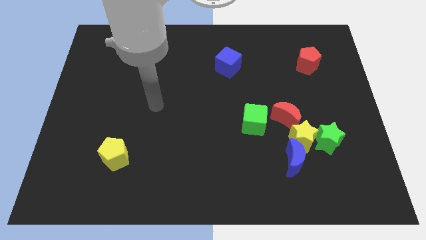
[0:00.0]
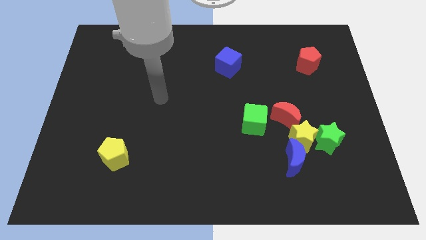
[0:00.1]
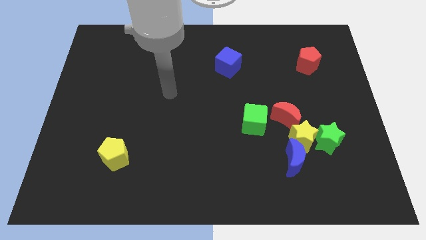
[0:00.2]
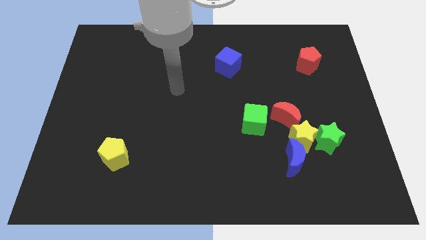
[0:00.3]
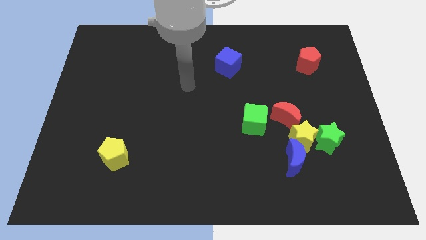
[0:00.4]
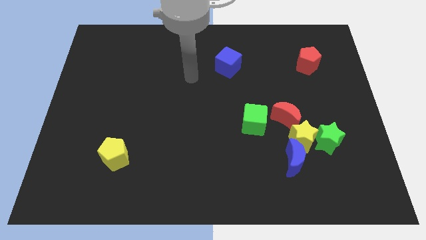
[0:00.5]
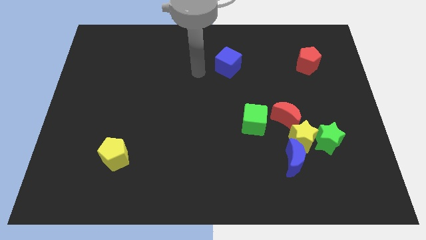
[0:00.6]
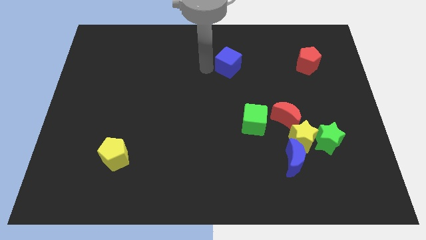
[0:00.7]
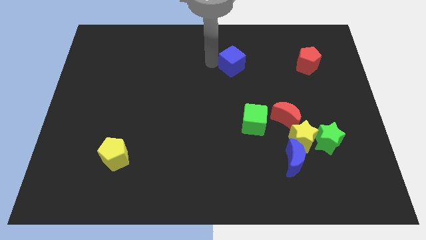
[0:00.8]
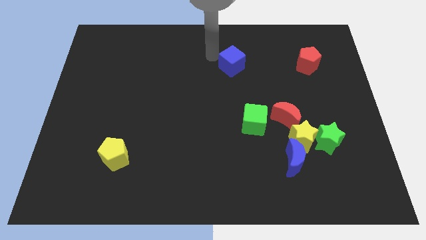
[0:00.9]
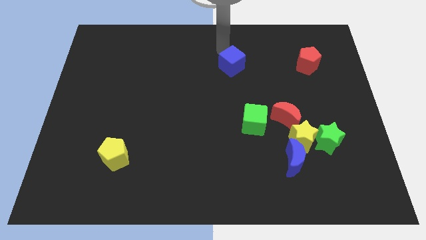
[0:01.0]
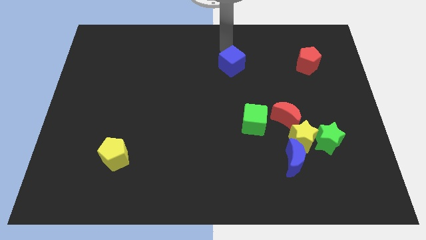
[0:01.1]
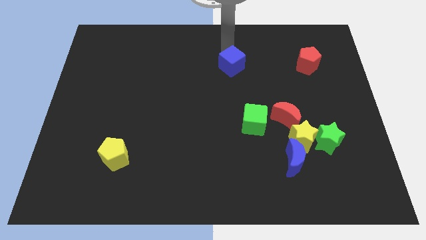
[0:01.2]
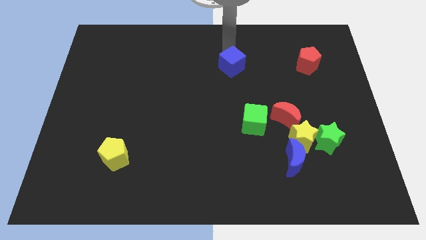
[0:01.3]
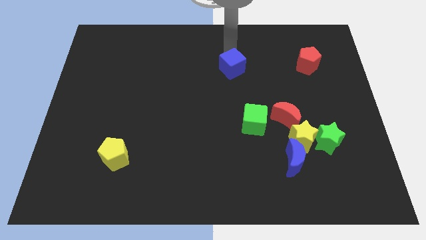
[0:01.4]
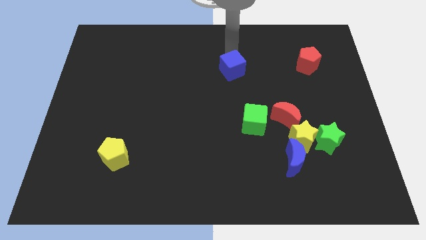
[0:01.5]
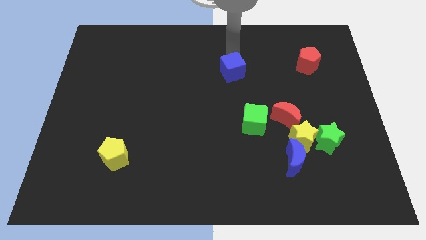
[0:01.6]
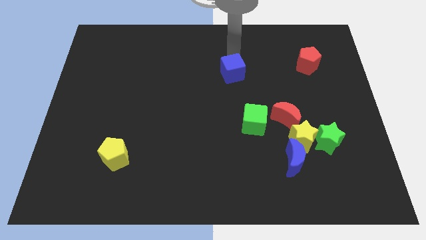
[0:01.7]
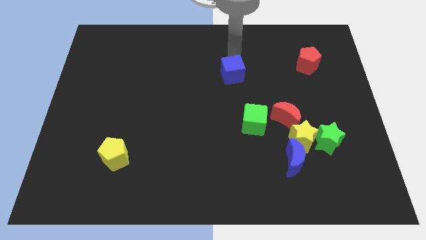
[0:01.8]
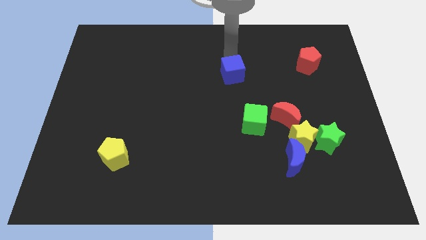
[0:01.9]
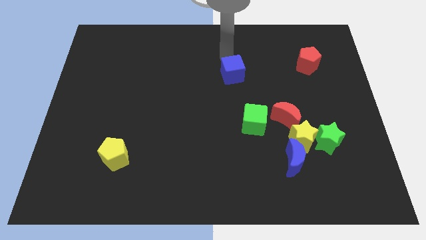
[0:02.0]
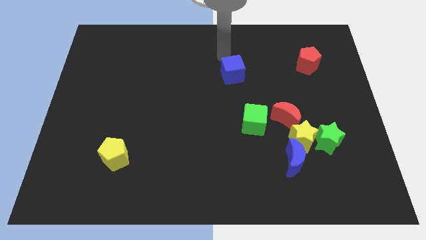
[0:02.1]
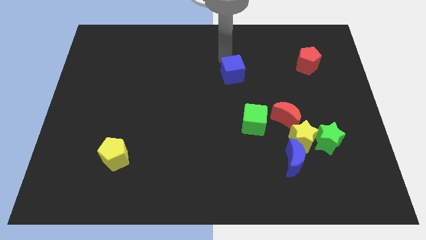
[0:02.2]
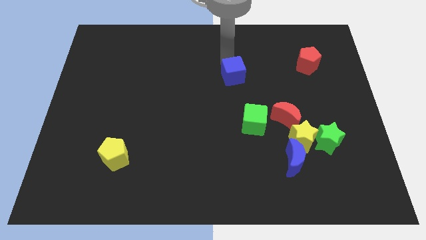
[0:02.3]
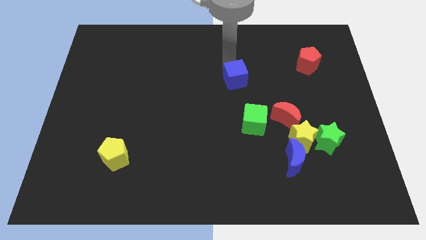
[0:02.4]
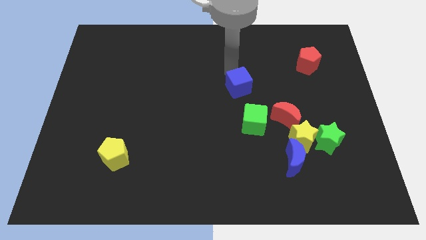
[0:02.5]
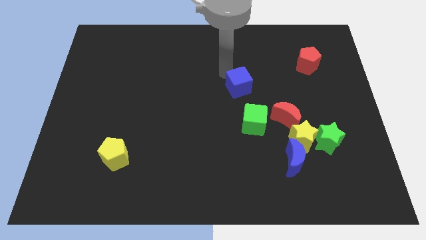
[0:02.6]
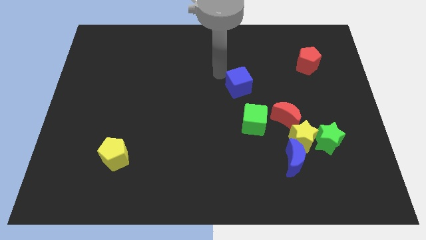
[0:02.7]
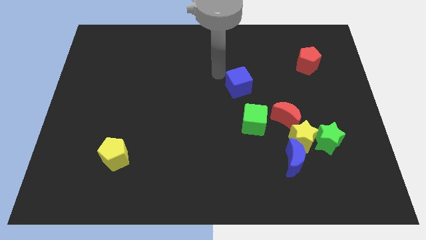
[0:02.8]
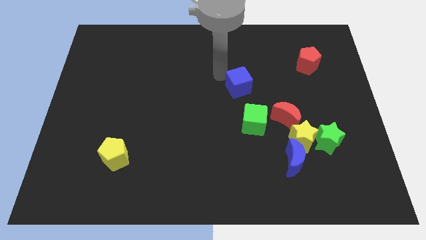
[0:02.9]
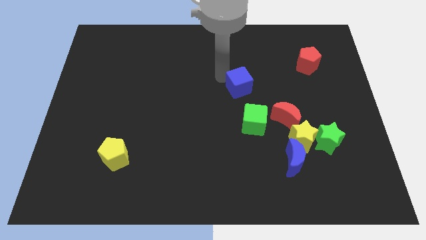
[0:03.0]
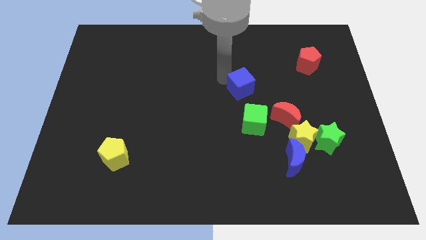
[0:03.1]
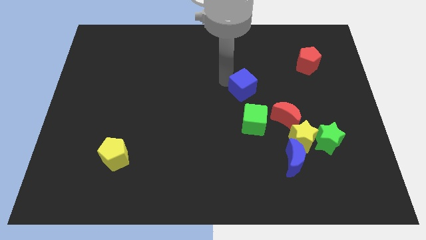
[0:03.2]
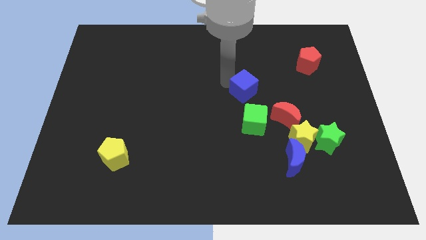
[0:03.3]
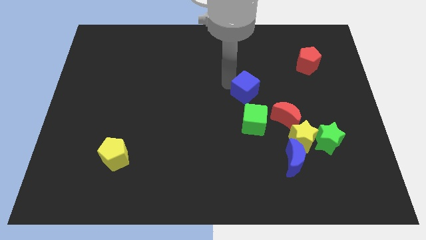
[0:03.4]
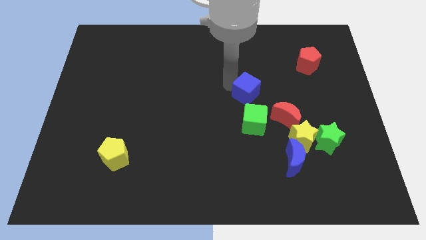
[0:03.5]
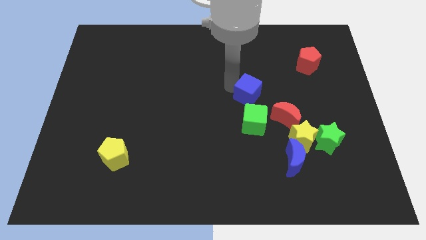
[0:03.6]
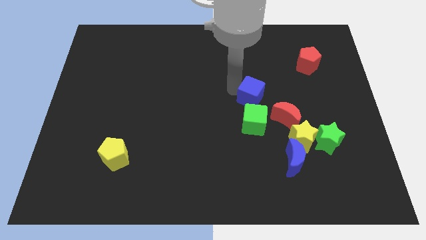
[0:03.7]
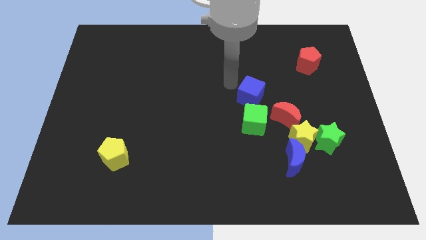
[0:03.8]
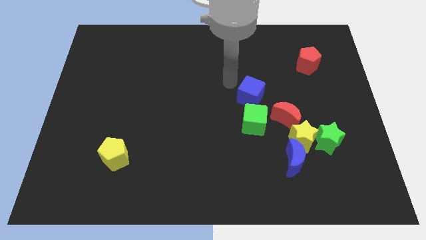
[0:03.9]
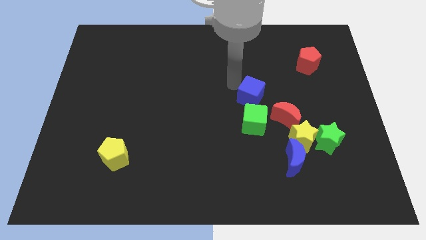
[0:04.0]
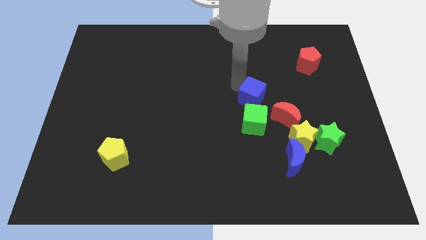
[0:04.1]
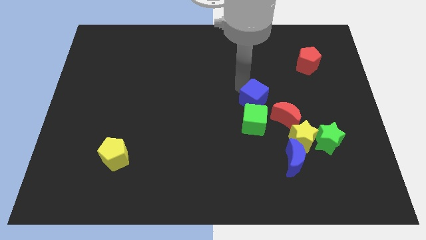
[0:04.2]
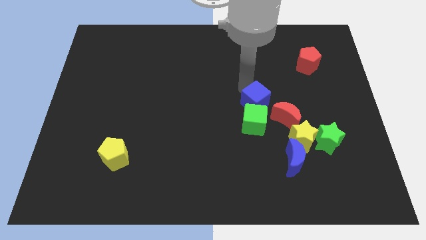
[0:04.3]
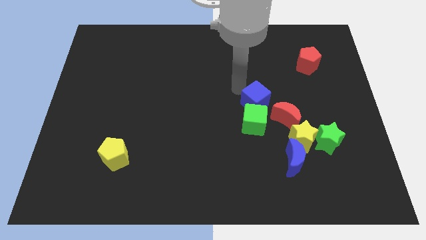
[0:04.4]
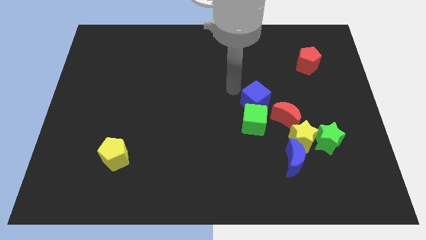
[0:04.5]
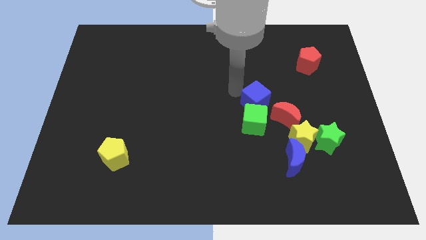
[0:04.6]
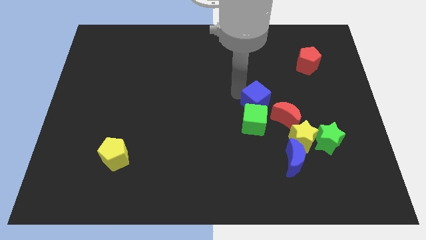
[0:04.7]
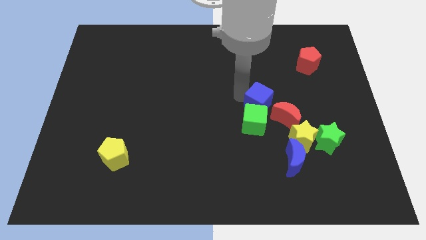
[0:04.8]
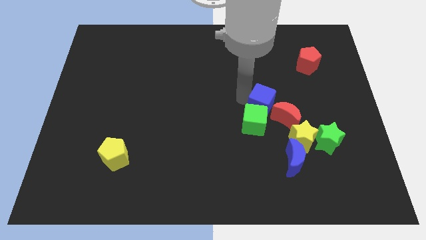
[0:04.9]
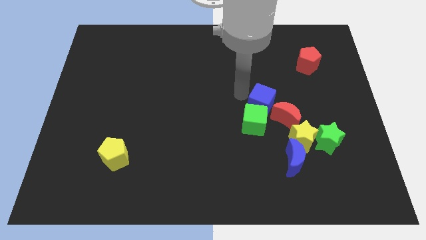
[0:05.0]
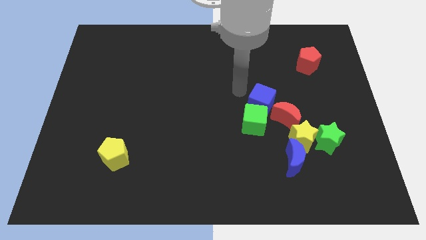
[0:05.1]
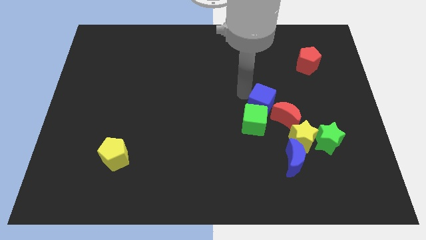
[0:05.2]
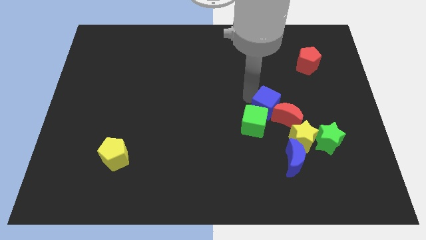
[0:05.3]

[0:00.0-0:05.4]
put the blue cube towards the red moon

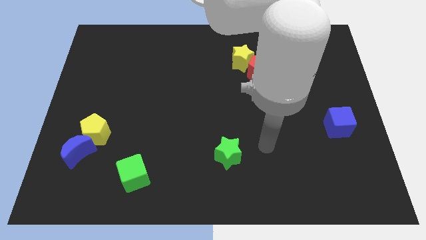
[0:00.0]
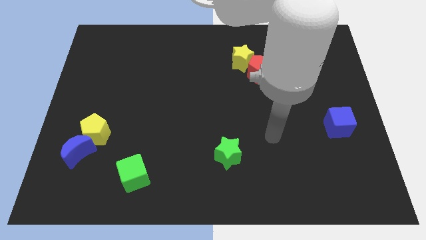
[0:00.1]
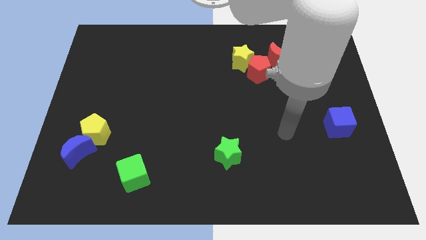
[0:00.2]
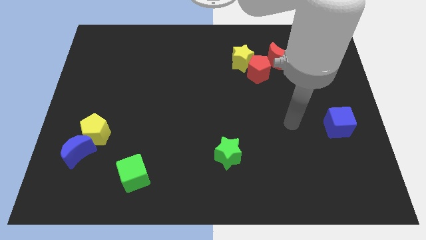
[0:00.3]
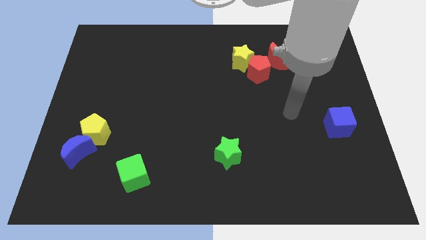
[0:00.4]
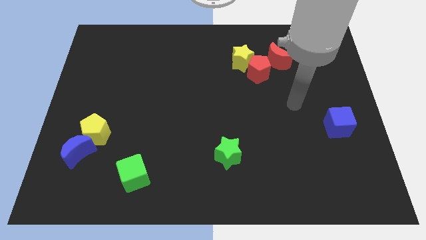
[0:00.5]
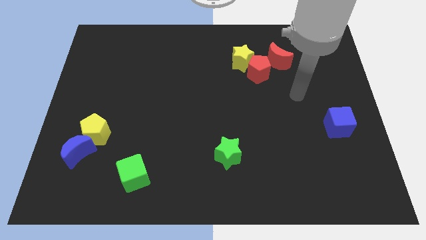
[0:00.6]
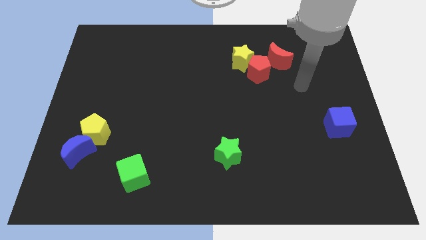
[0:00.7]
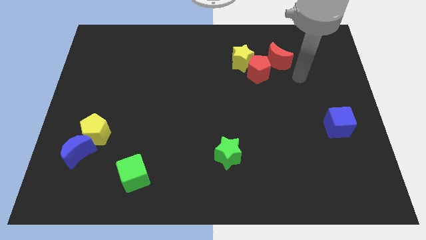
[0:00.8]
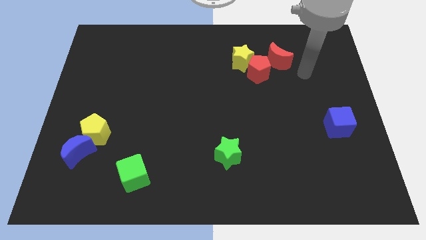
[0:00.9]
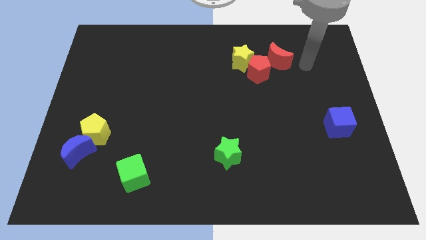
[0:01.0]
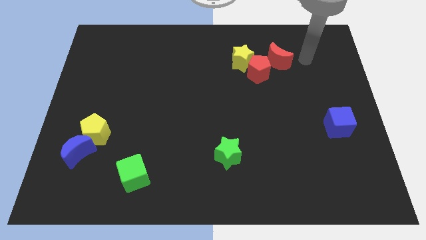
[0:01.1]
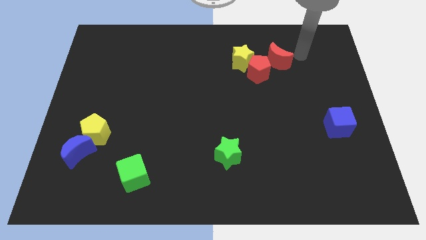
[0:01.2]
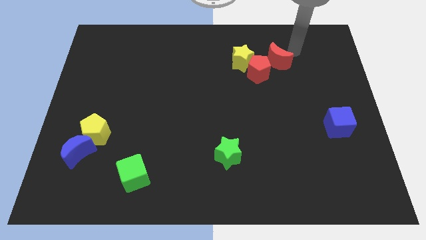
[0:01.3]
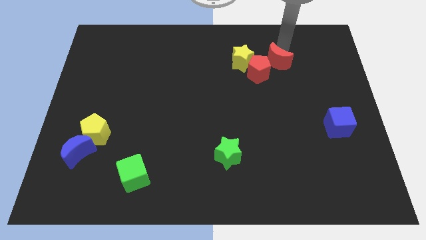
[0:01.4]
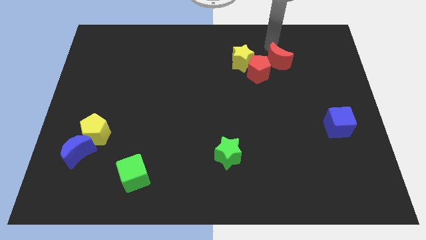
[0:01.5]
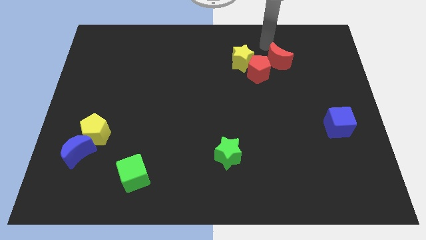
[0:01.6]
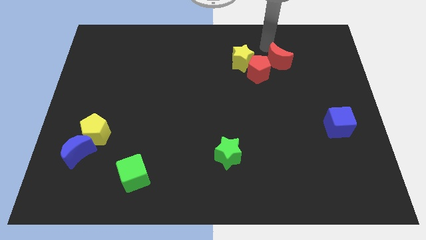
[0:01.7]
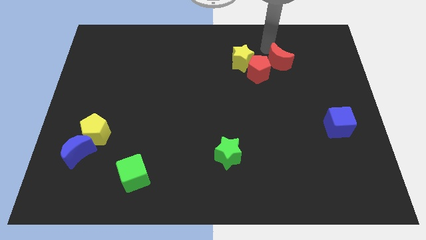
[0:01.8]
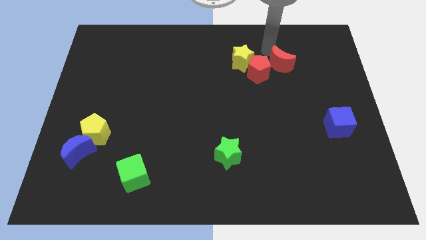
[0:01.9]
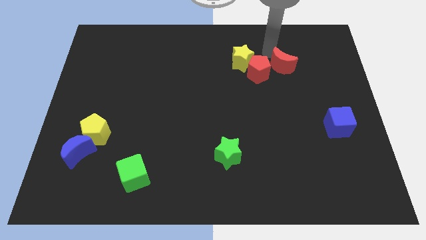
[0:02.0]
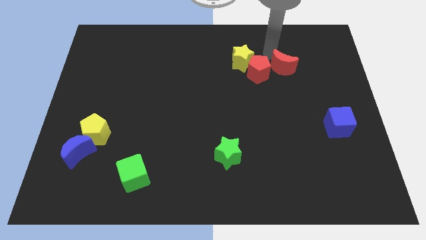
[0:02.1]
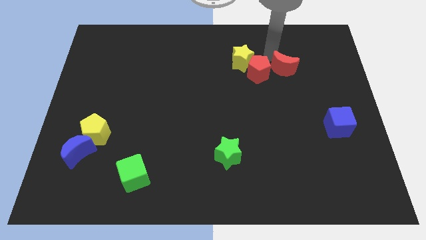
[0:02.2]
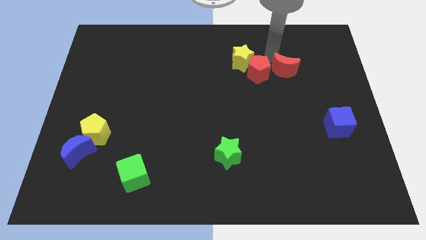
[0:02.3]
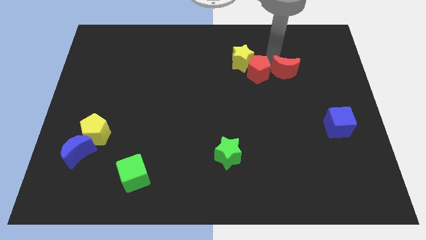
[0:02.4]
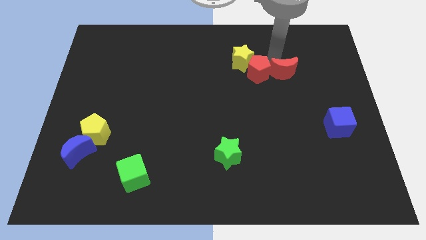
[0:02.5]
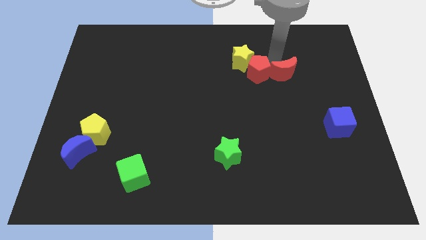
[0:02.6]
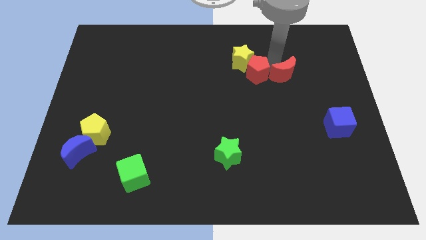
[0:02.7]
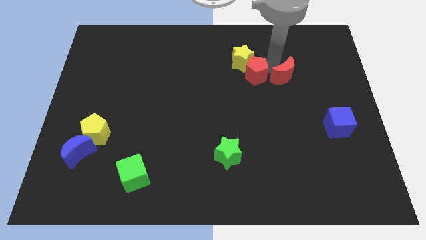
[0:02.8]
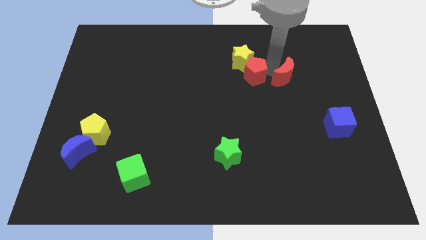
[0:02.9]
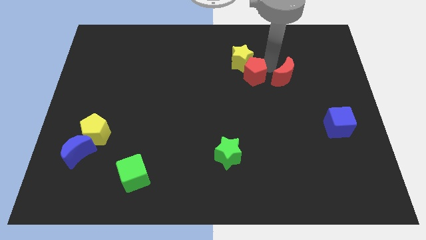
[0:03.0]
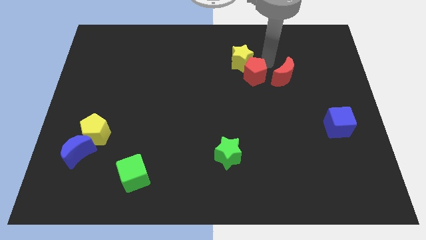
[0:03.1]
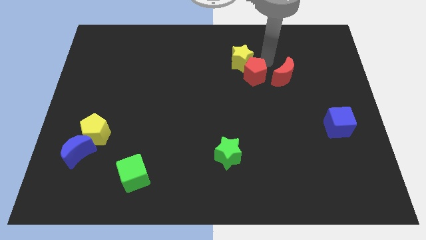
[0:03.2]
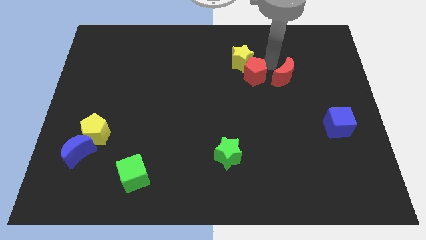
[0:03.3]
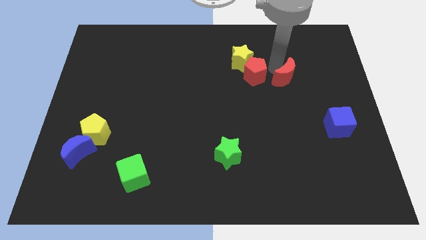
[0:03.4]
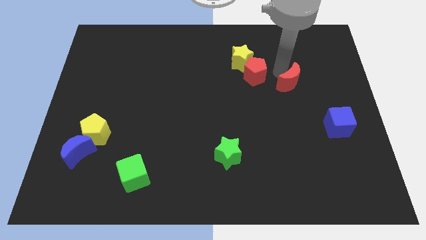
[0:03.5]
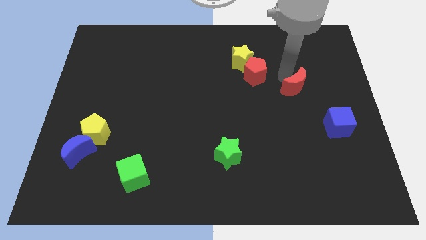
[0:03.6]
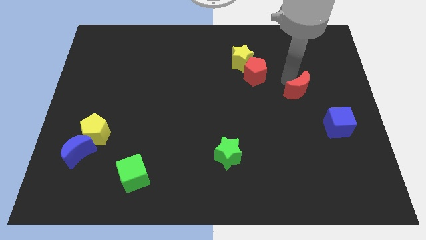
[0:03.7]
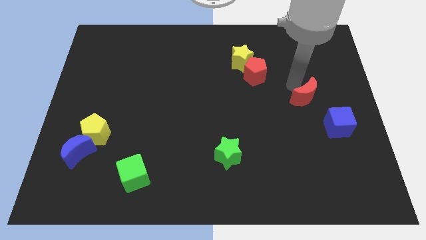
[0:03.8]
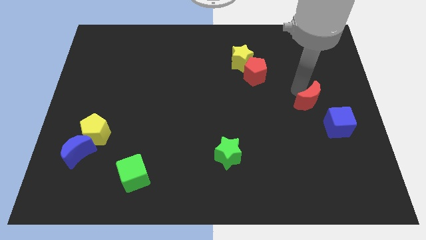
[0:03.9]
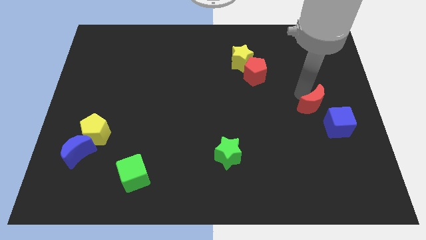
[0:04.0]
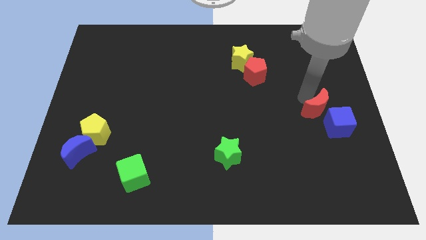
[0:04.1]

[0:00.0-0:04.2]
move the red moon next to the blue cube
